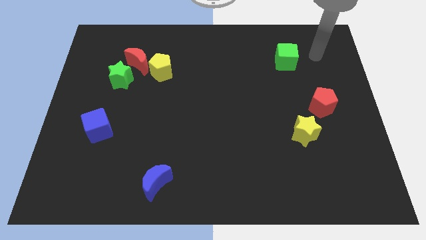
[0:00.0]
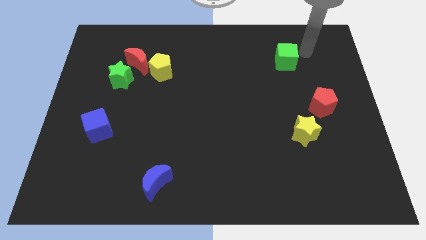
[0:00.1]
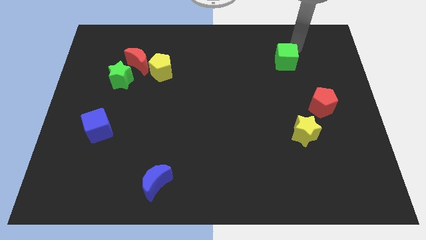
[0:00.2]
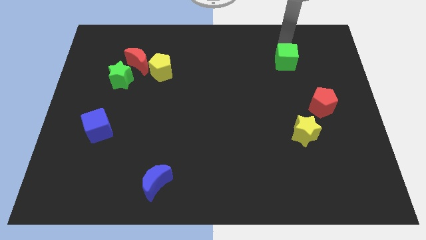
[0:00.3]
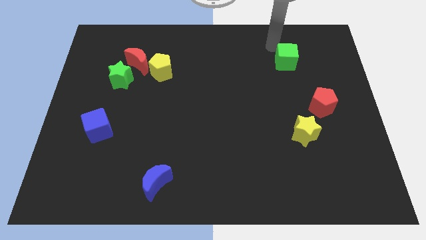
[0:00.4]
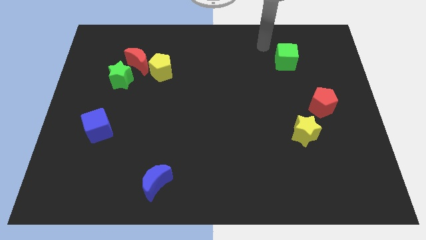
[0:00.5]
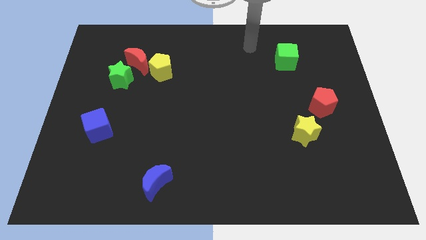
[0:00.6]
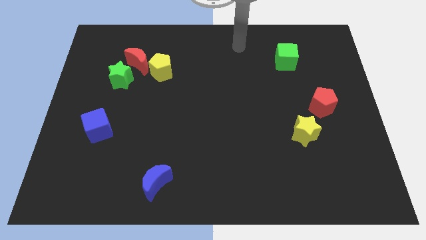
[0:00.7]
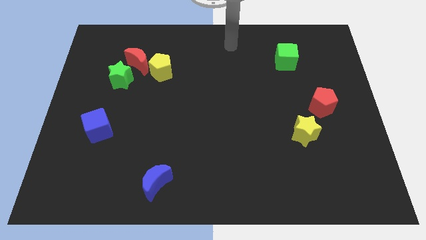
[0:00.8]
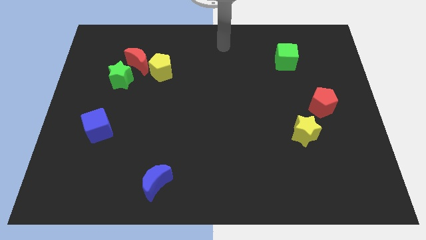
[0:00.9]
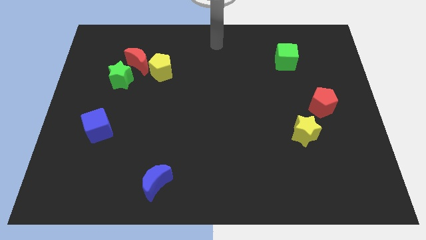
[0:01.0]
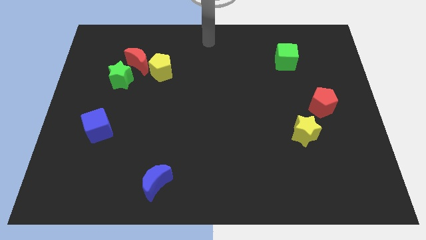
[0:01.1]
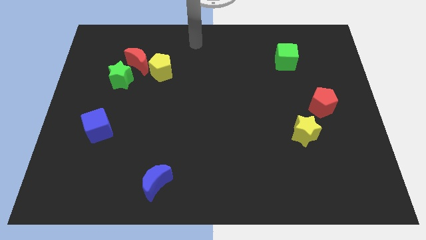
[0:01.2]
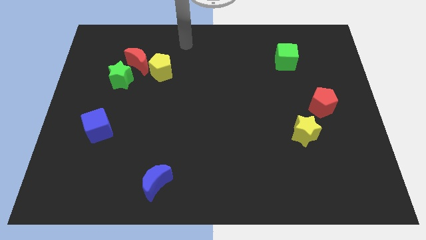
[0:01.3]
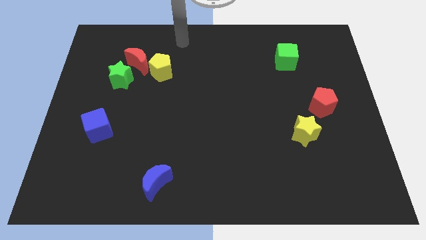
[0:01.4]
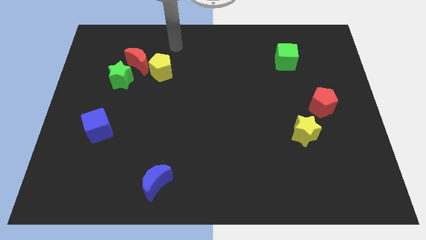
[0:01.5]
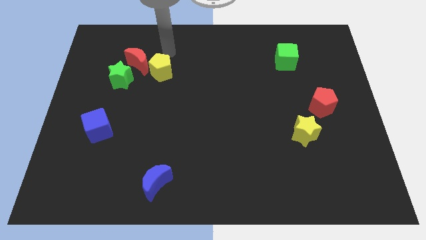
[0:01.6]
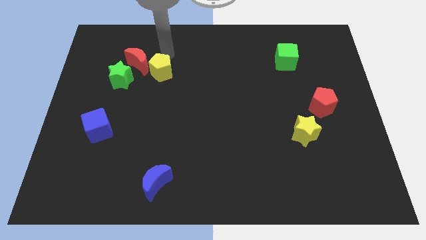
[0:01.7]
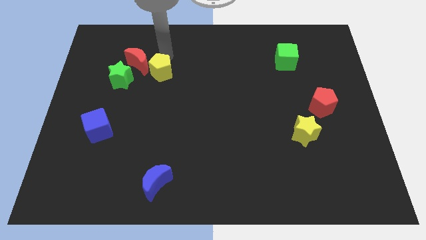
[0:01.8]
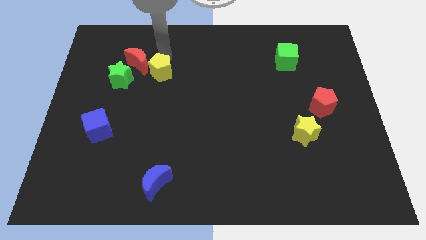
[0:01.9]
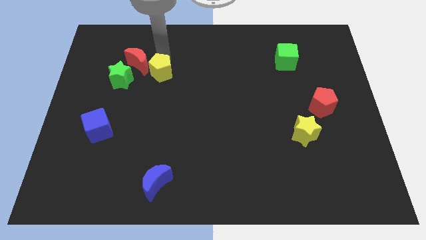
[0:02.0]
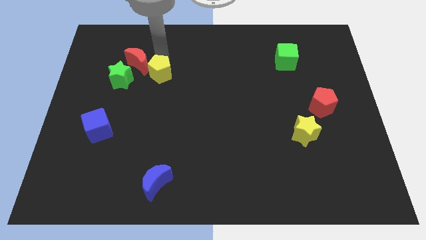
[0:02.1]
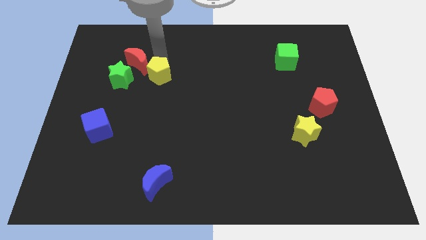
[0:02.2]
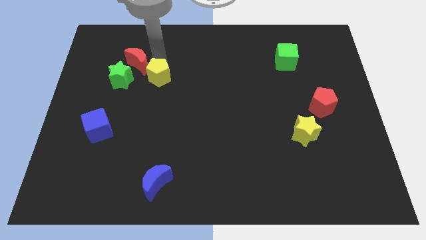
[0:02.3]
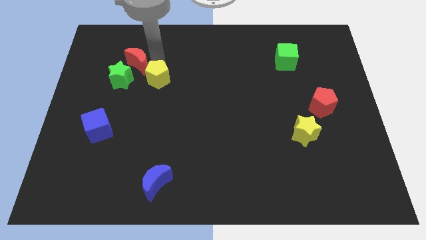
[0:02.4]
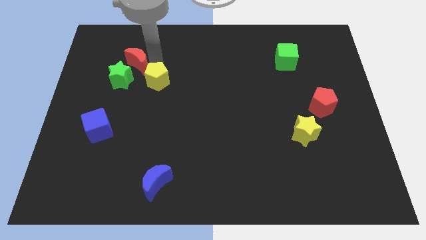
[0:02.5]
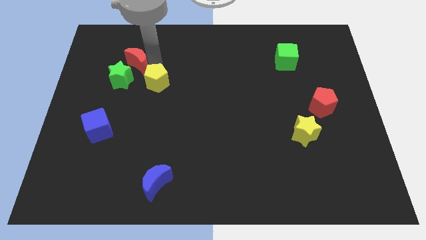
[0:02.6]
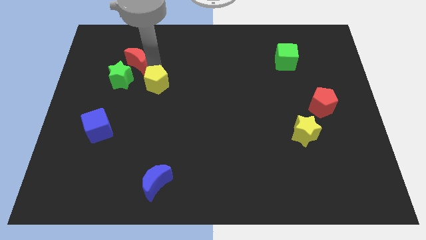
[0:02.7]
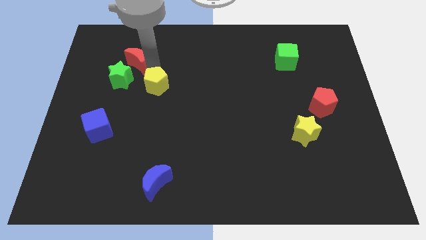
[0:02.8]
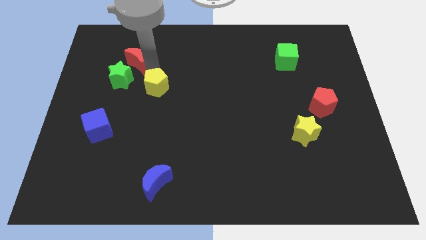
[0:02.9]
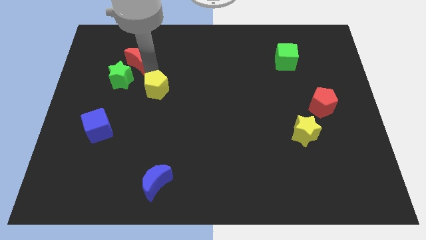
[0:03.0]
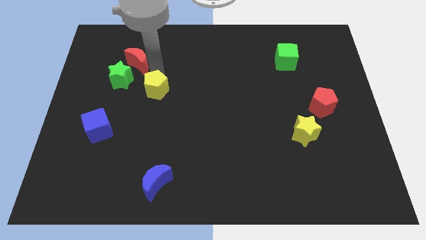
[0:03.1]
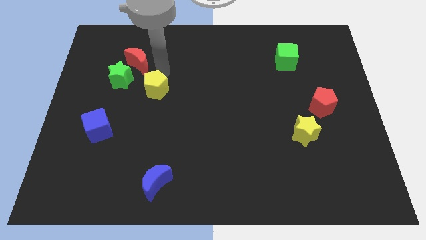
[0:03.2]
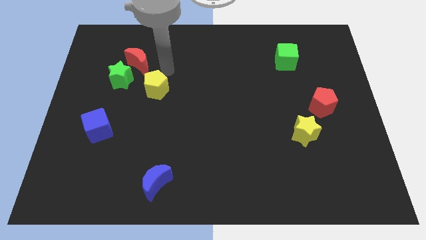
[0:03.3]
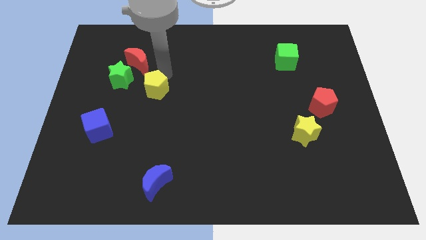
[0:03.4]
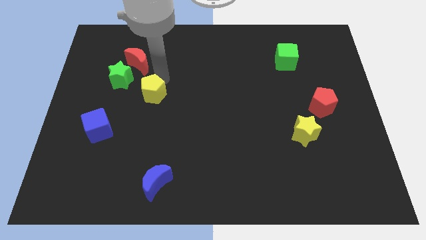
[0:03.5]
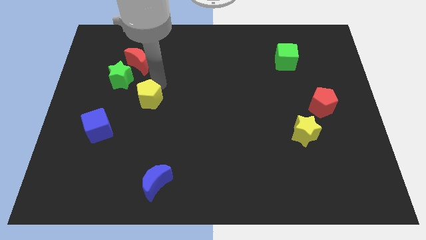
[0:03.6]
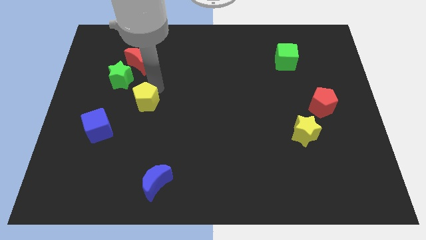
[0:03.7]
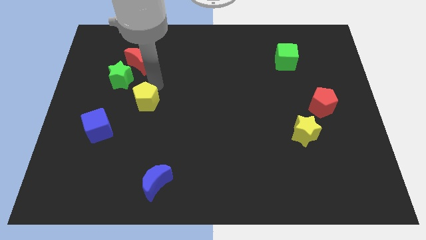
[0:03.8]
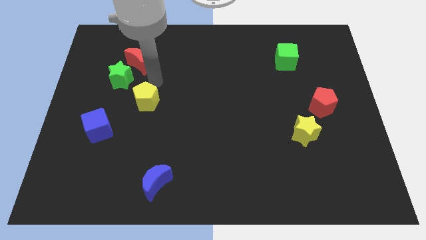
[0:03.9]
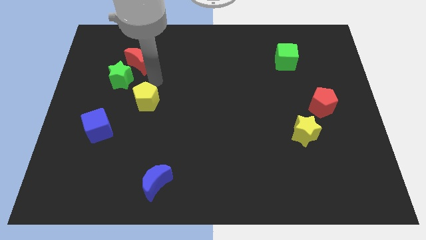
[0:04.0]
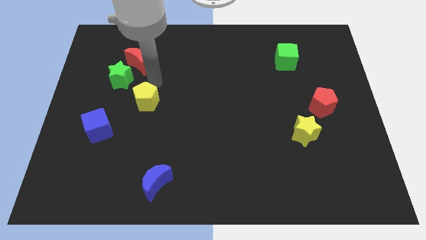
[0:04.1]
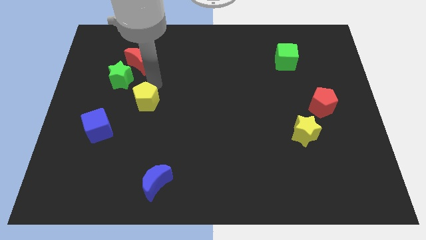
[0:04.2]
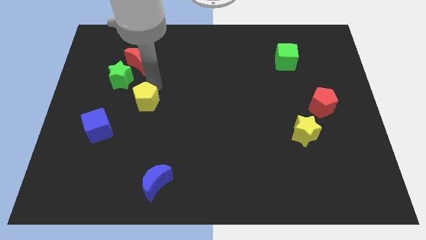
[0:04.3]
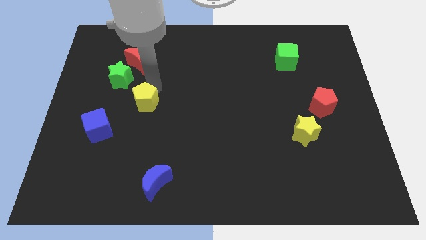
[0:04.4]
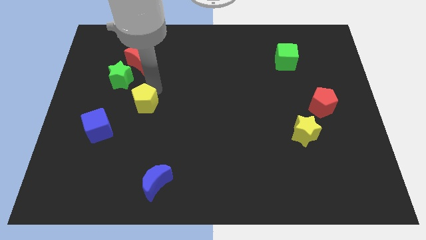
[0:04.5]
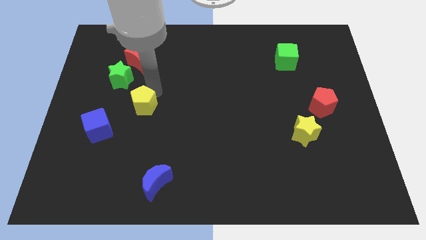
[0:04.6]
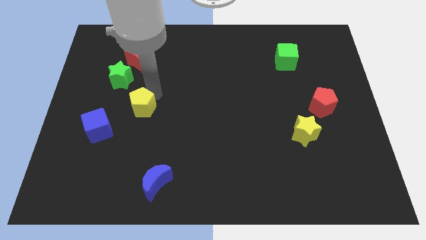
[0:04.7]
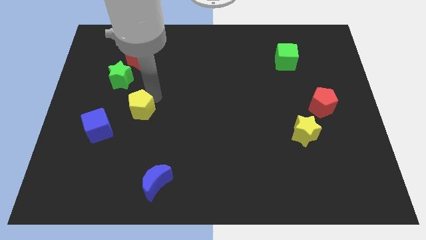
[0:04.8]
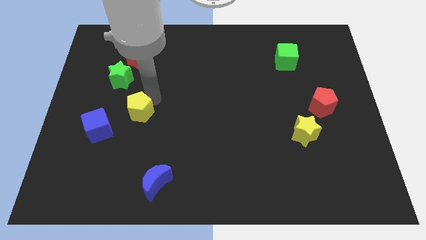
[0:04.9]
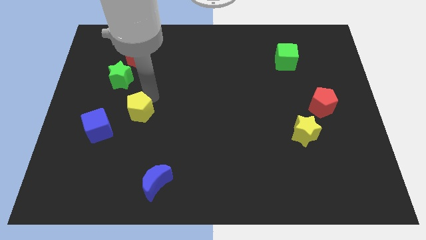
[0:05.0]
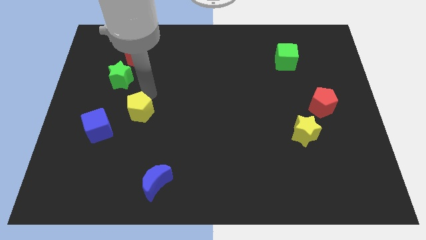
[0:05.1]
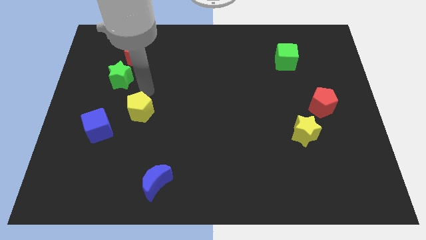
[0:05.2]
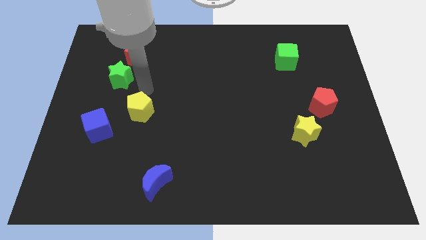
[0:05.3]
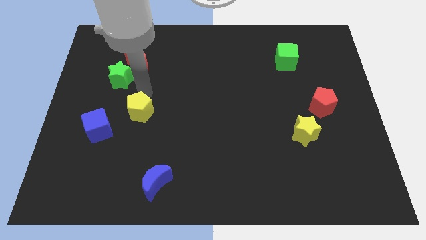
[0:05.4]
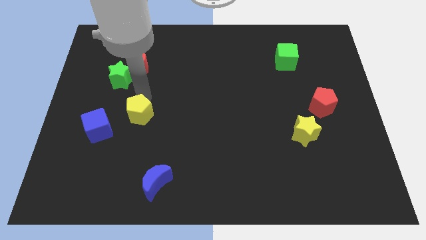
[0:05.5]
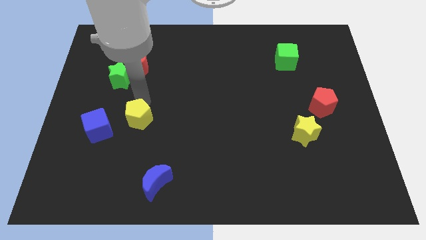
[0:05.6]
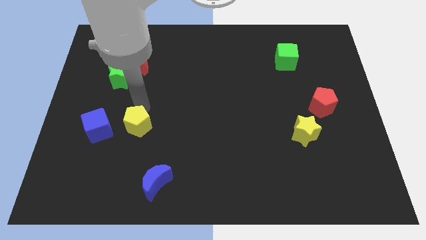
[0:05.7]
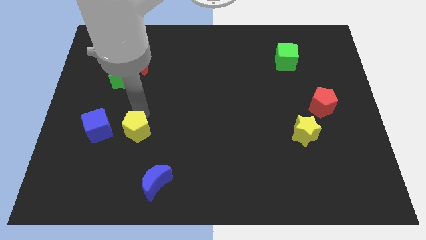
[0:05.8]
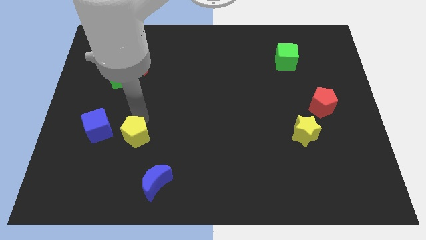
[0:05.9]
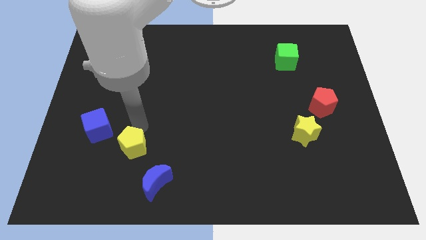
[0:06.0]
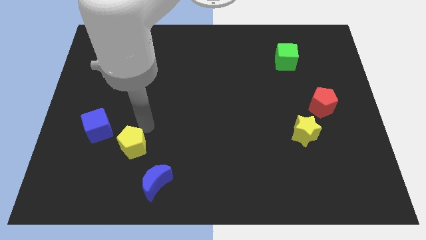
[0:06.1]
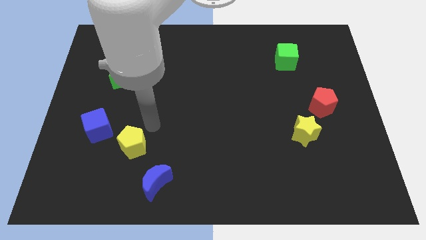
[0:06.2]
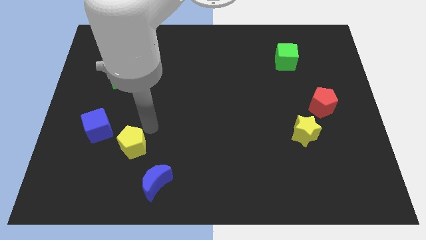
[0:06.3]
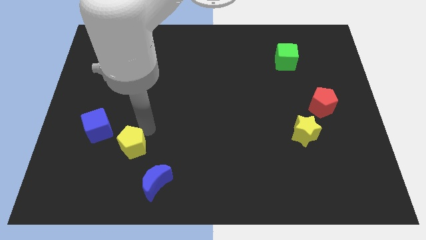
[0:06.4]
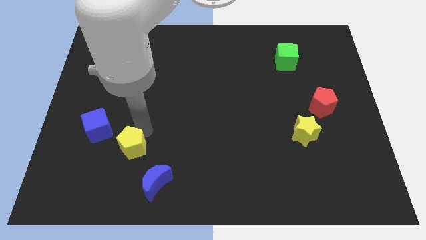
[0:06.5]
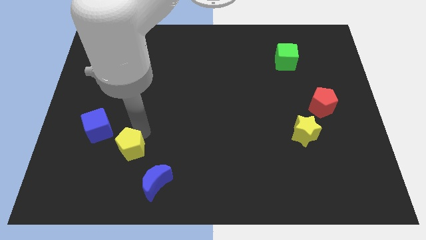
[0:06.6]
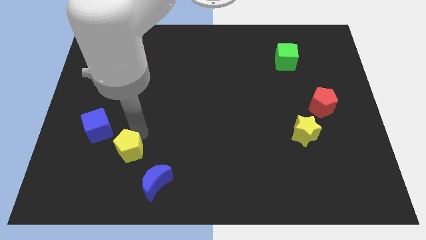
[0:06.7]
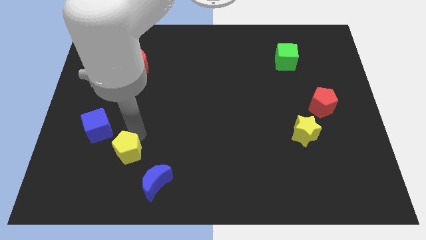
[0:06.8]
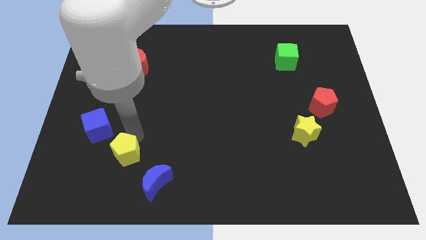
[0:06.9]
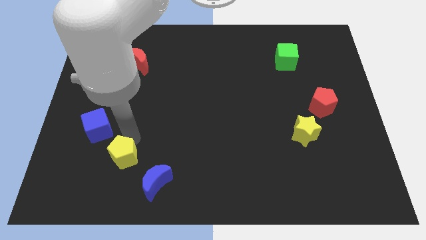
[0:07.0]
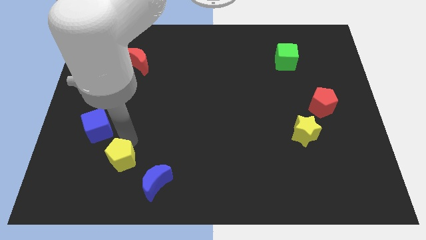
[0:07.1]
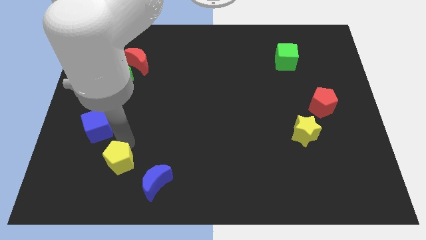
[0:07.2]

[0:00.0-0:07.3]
put the yellow pentagon left of the blue moon

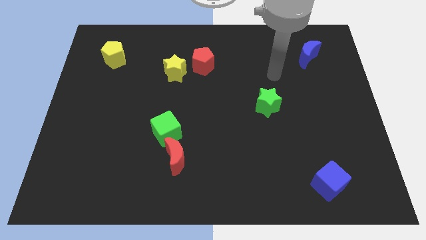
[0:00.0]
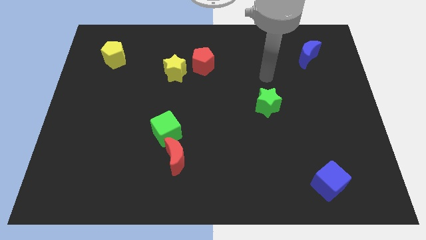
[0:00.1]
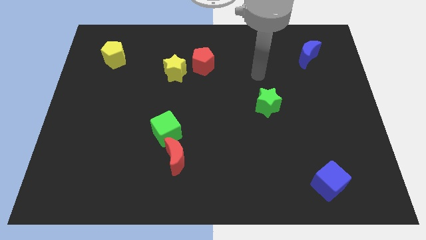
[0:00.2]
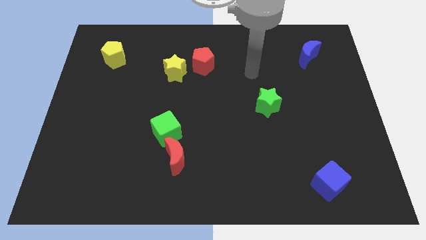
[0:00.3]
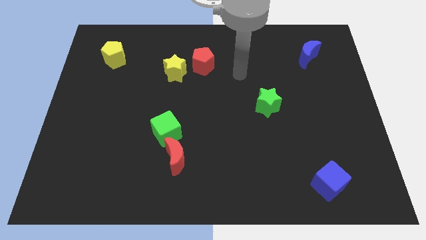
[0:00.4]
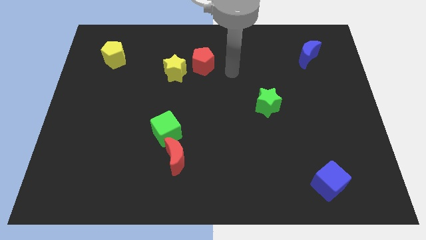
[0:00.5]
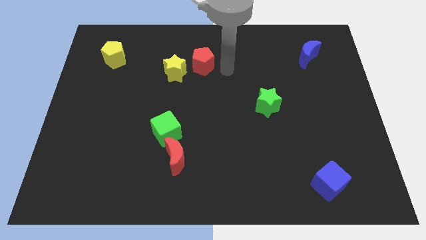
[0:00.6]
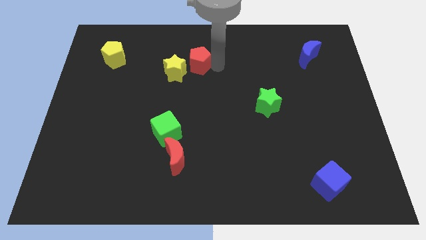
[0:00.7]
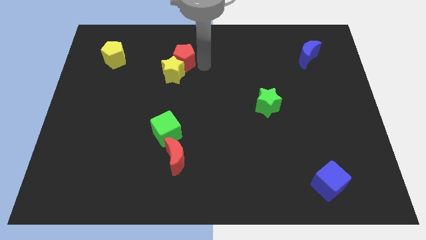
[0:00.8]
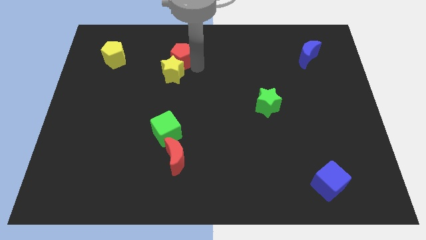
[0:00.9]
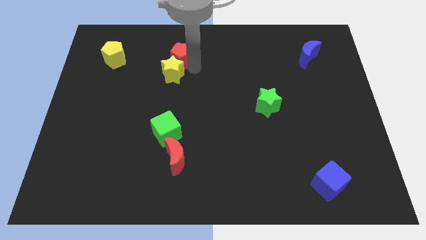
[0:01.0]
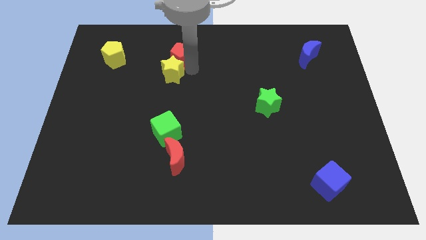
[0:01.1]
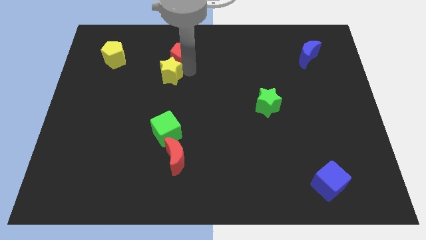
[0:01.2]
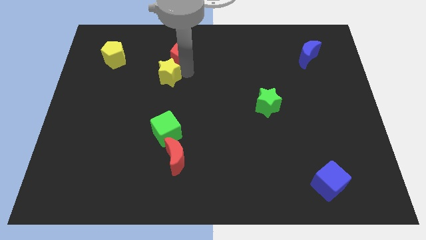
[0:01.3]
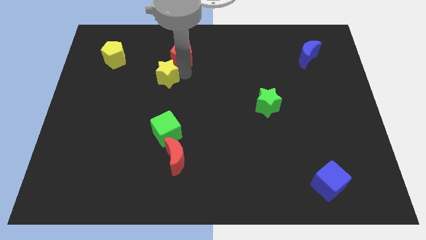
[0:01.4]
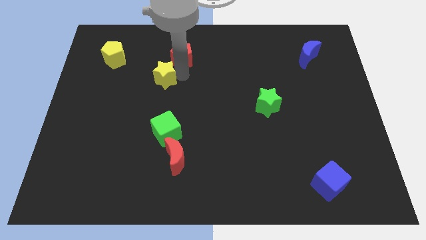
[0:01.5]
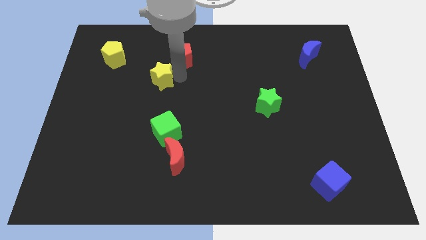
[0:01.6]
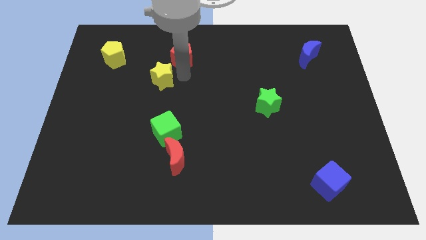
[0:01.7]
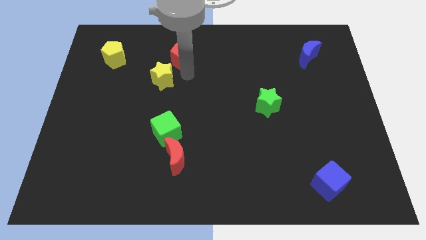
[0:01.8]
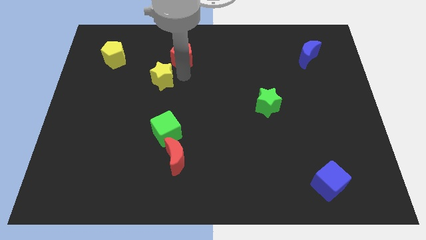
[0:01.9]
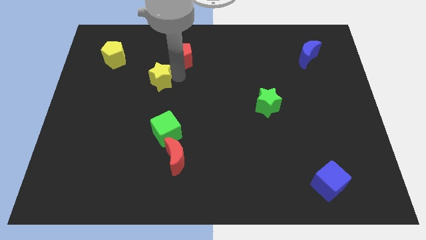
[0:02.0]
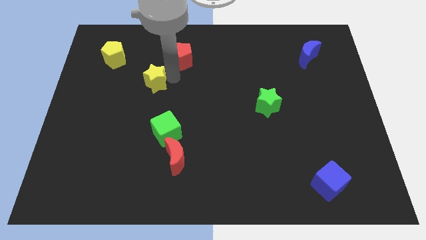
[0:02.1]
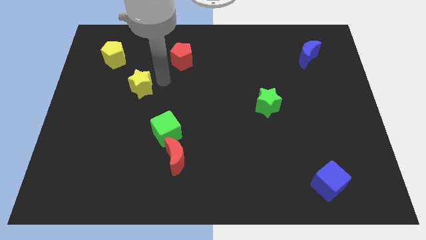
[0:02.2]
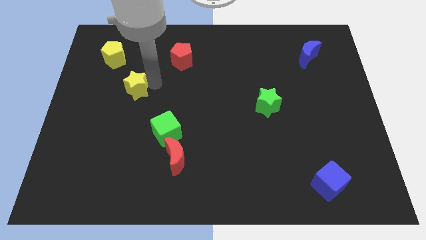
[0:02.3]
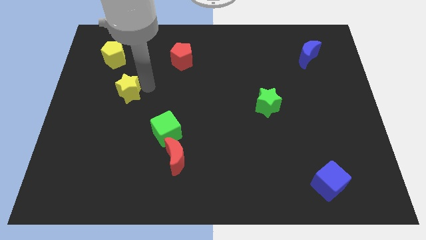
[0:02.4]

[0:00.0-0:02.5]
put the yellow star to the bottom of the yellow pentagon
